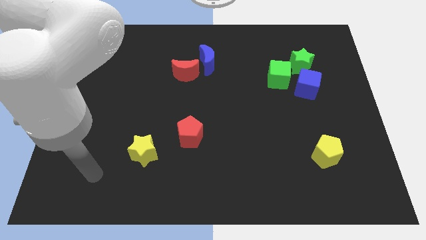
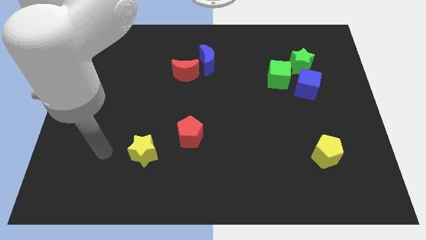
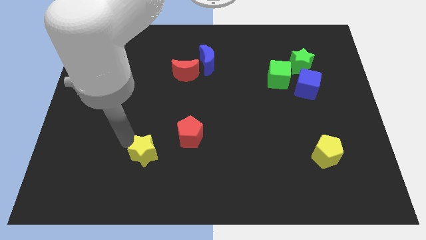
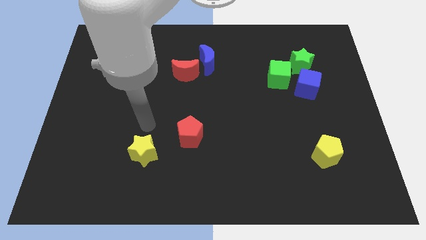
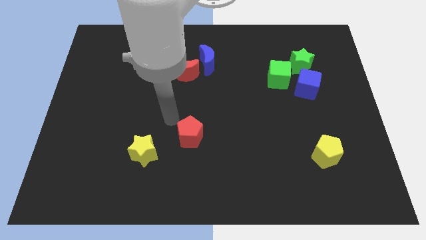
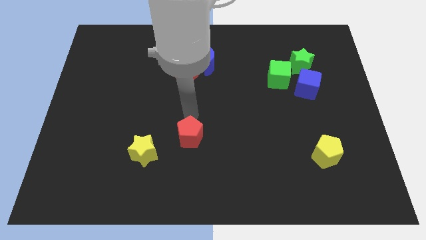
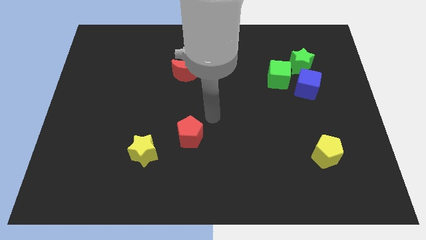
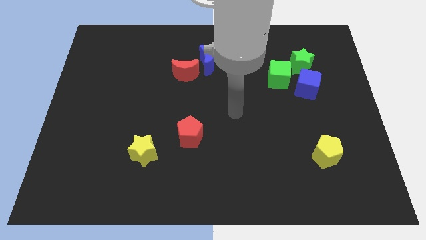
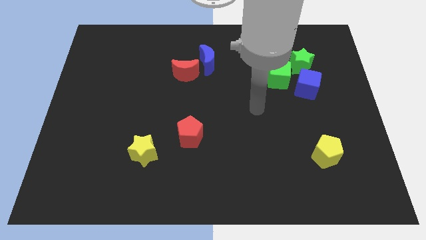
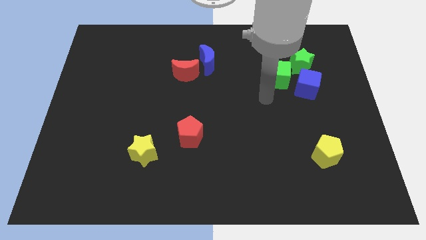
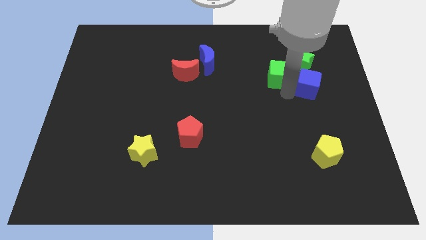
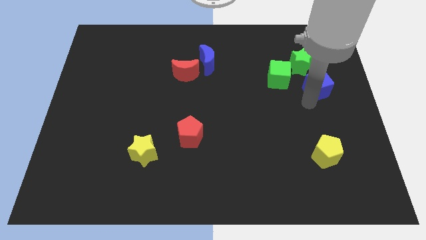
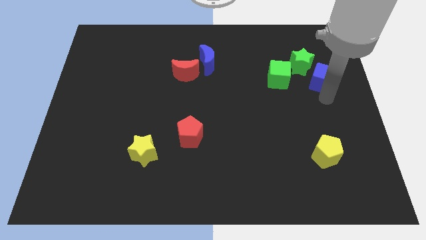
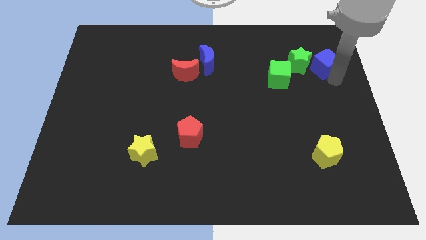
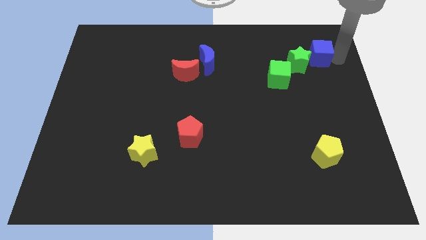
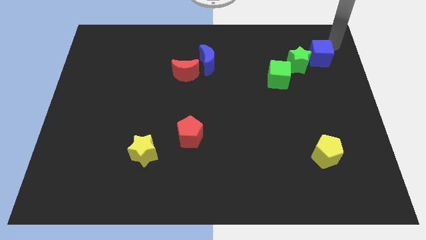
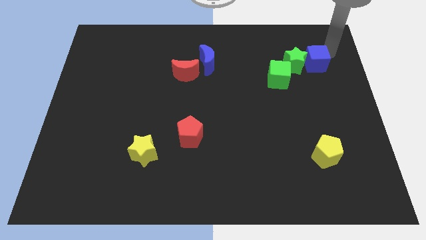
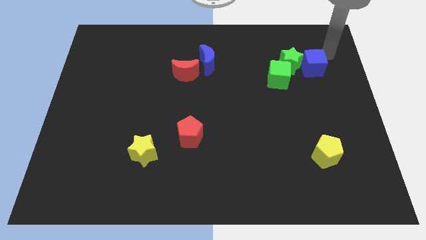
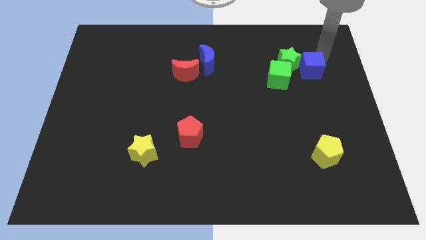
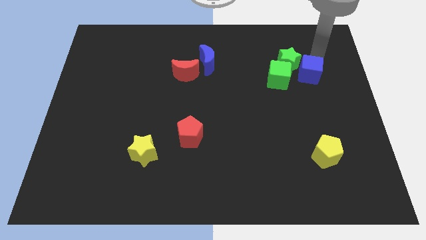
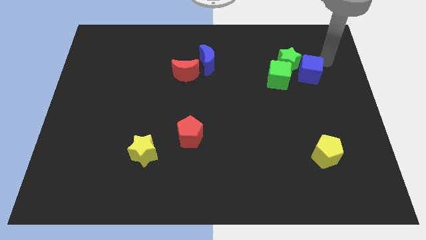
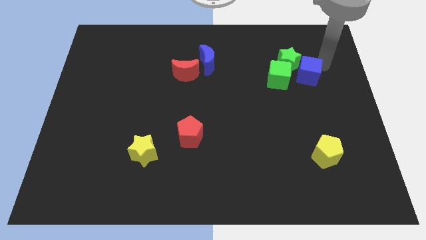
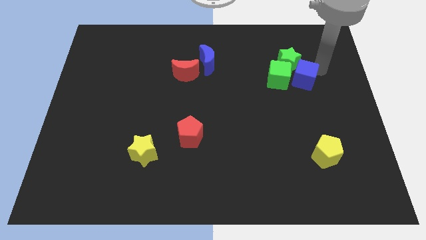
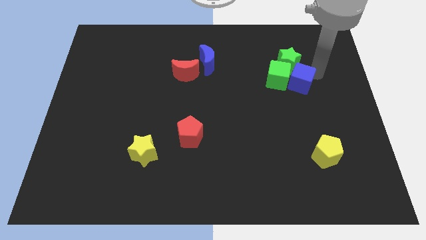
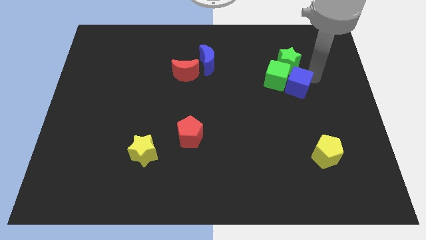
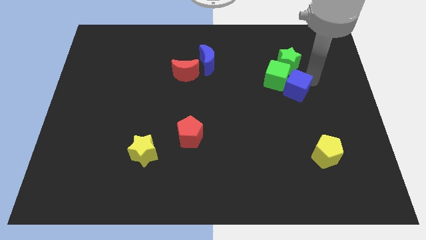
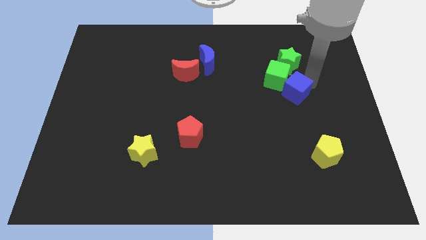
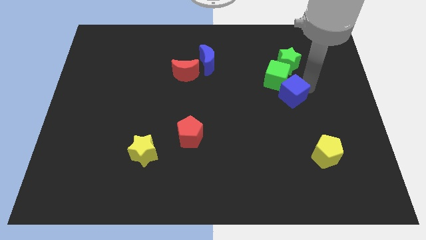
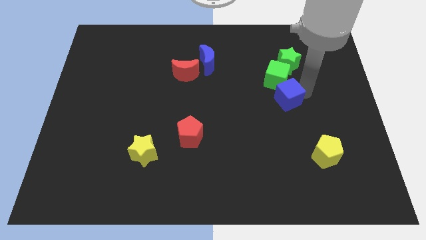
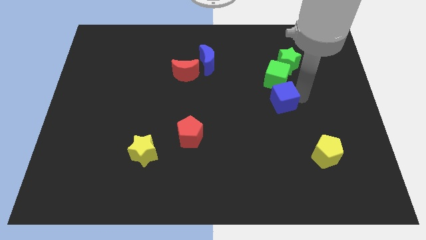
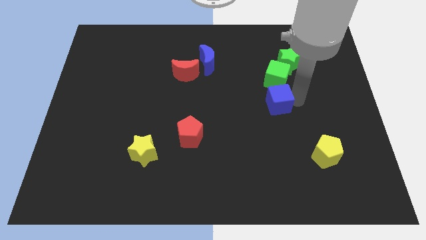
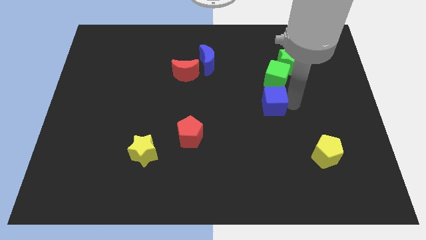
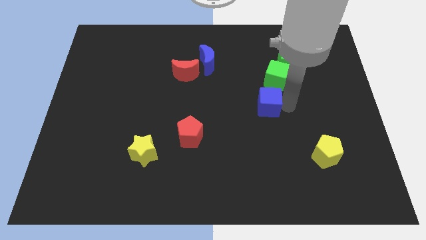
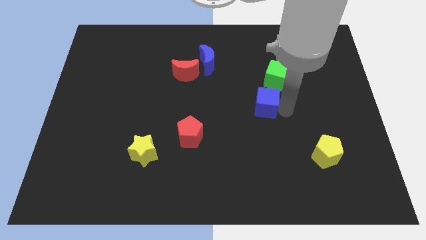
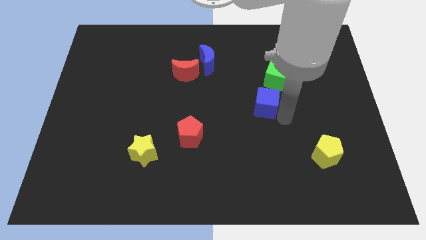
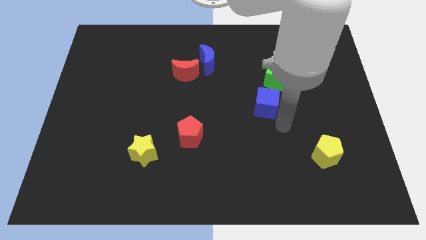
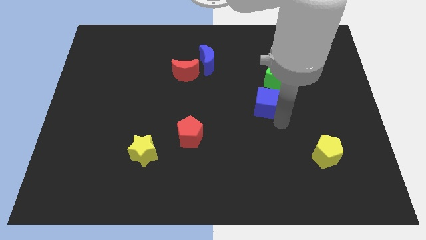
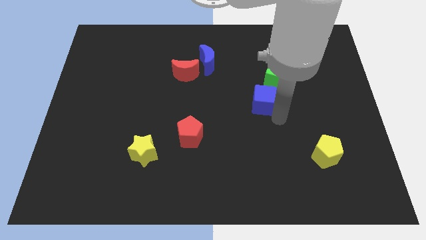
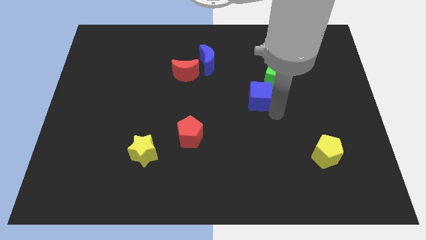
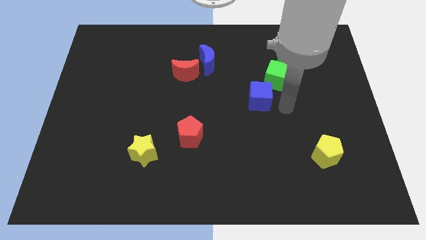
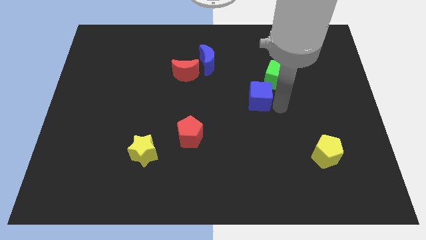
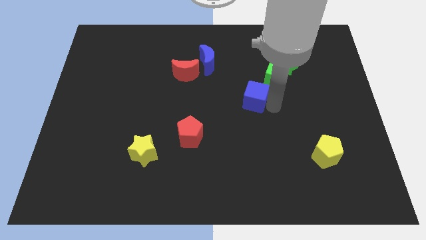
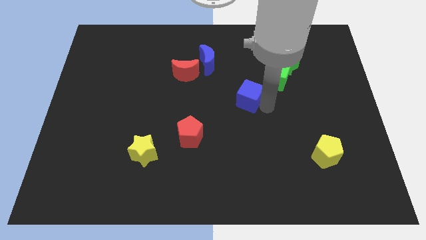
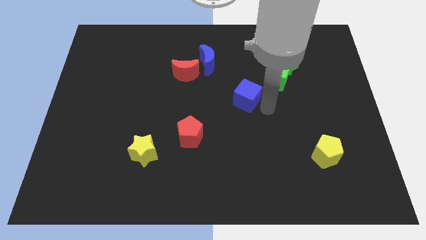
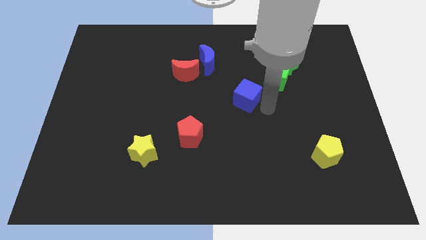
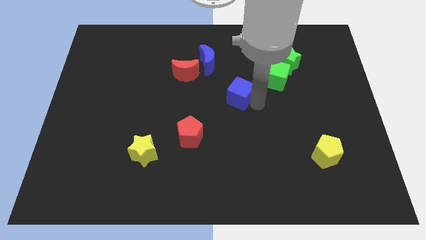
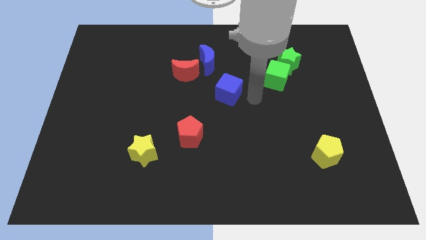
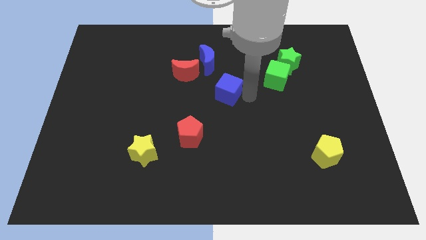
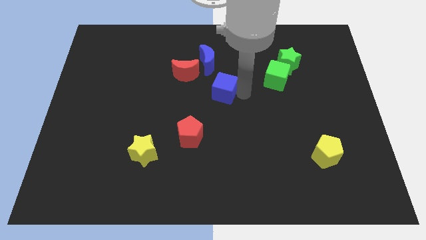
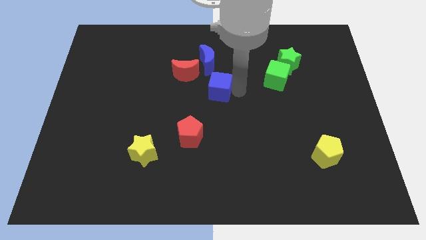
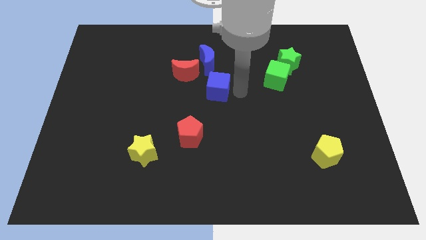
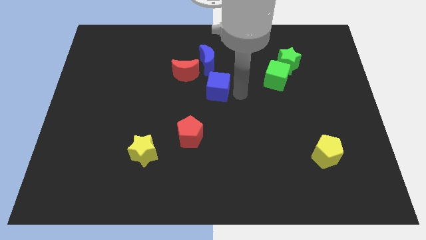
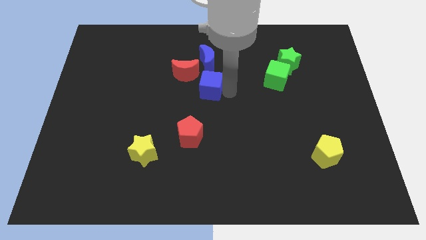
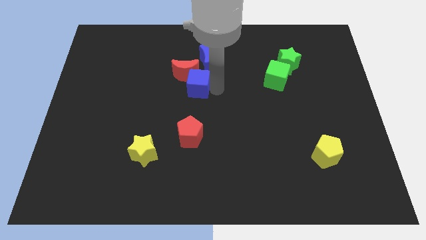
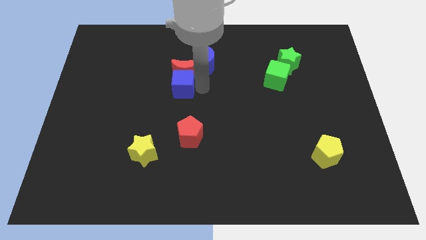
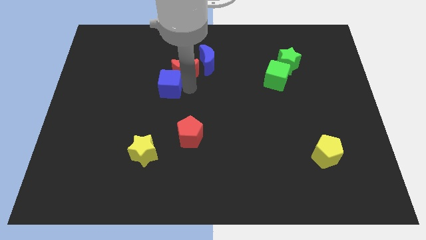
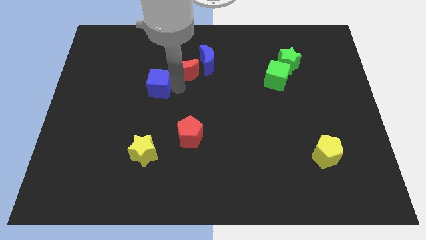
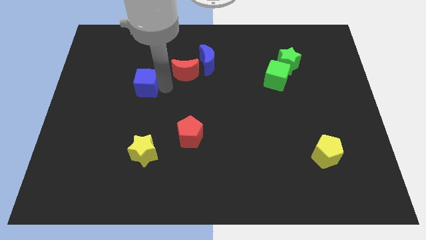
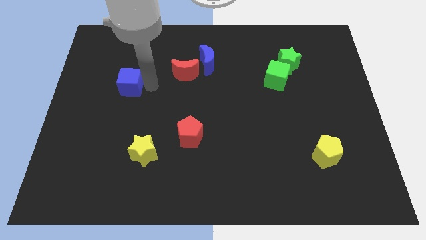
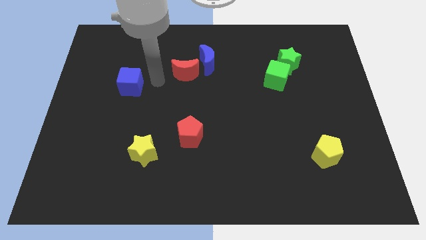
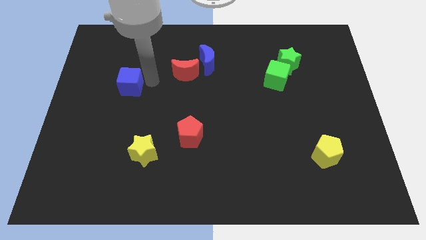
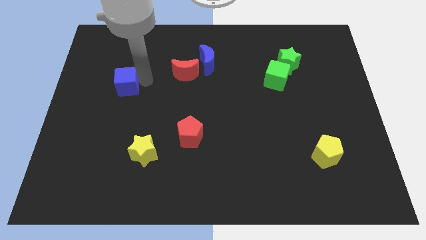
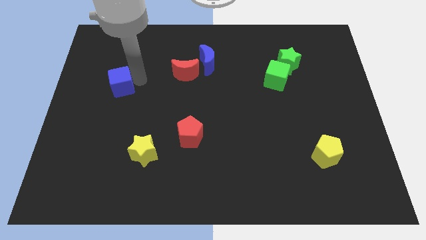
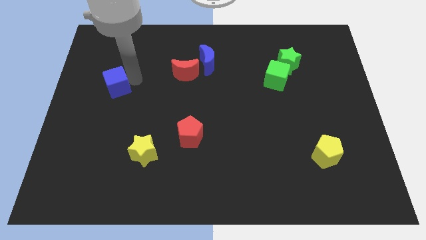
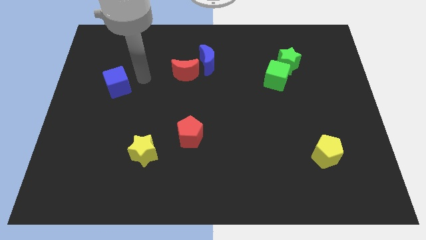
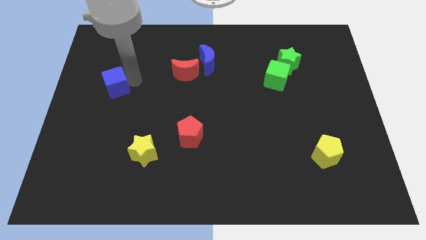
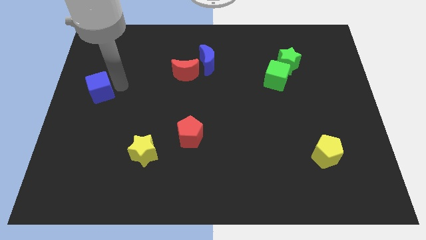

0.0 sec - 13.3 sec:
push the blue cube to the center left

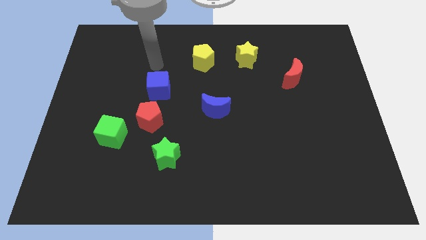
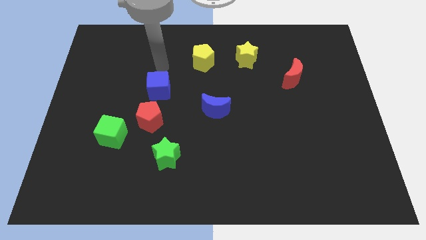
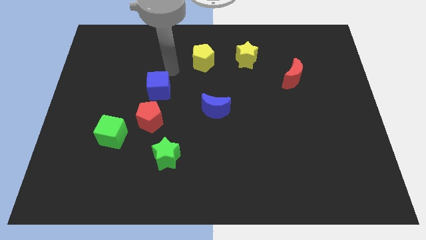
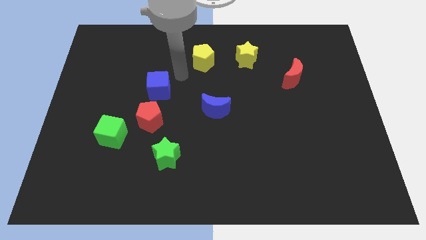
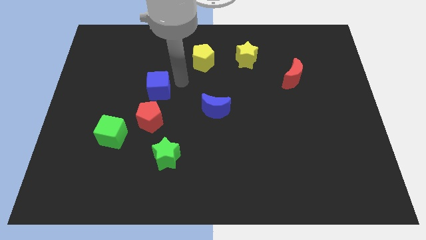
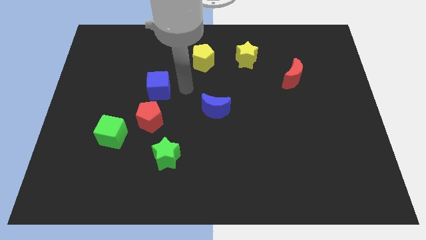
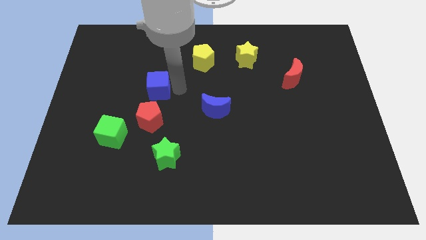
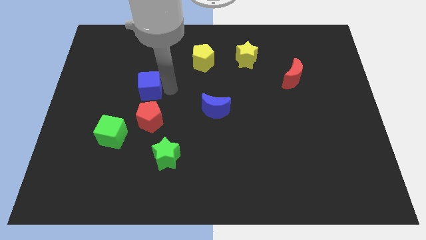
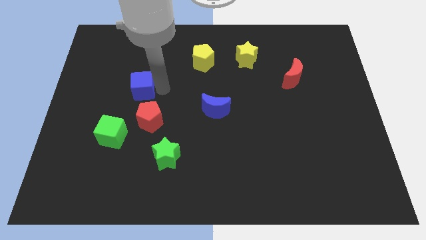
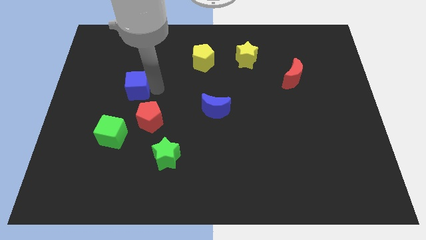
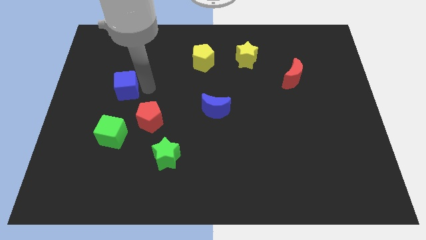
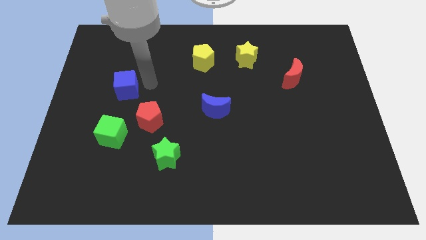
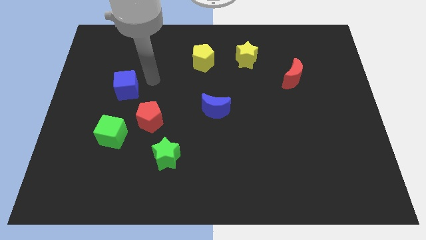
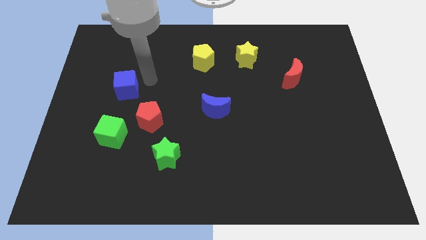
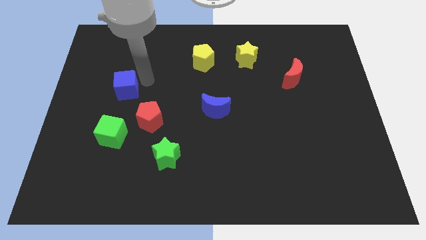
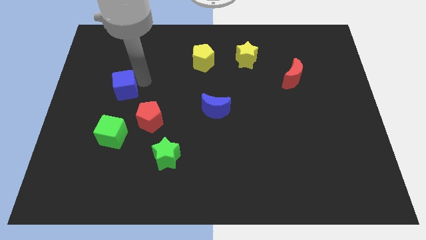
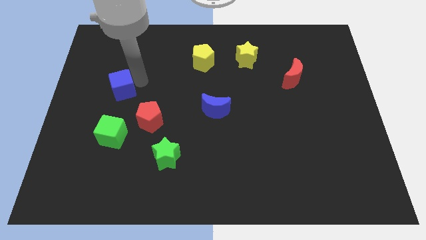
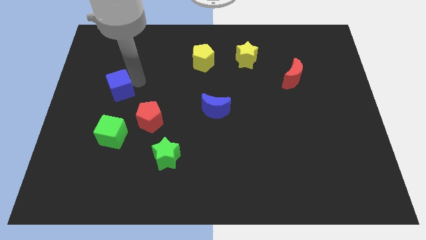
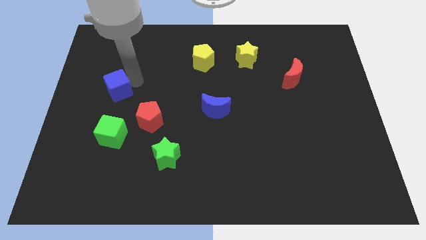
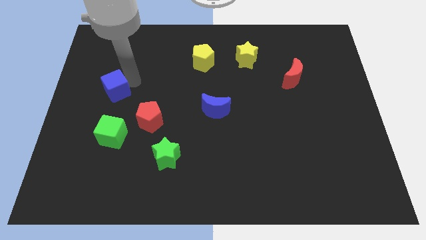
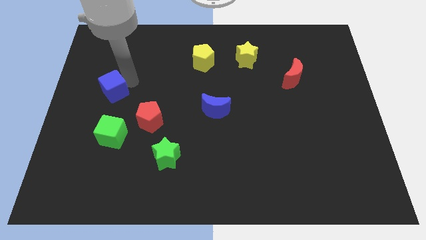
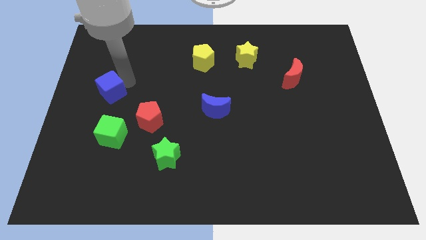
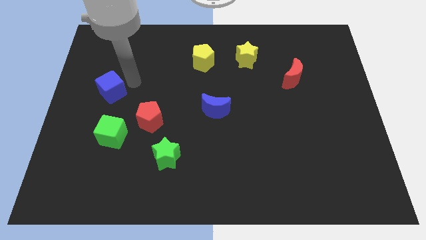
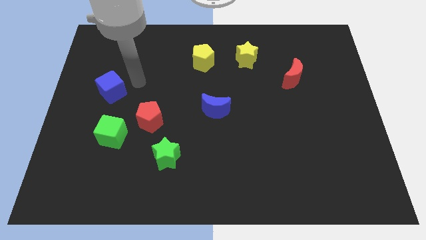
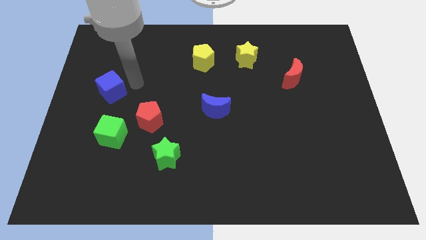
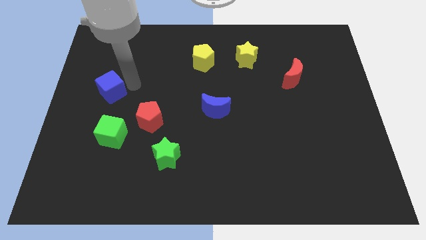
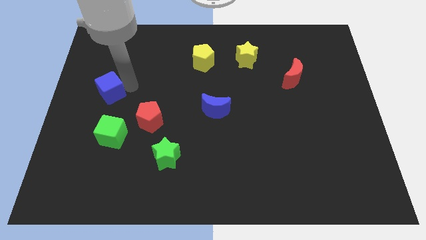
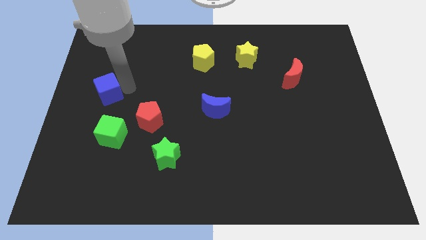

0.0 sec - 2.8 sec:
move the blue cube to the center left
